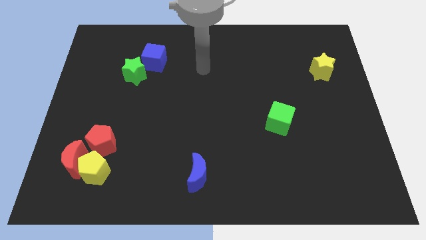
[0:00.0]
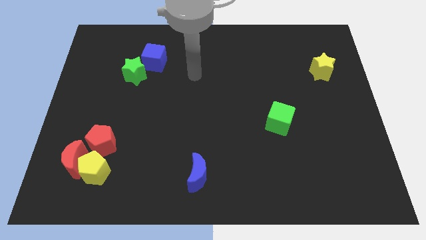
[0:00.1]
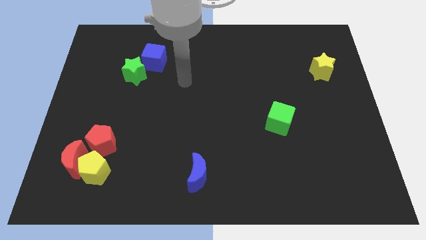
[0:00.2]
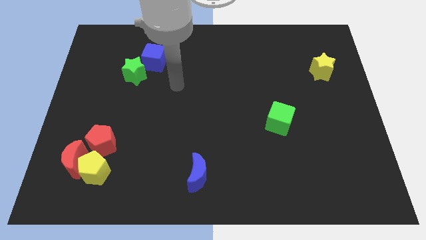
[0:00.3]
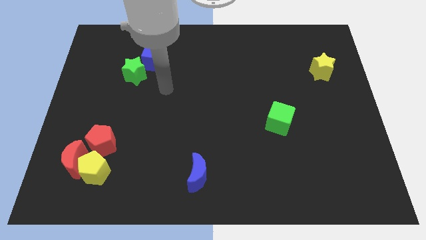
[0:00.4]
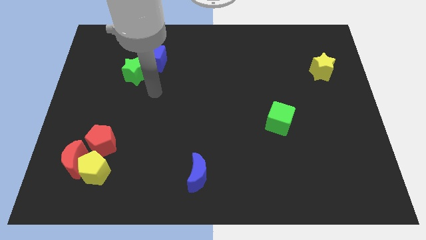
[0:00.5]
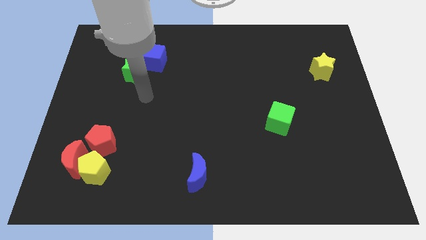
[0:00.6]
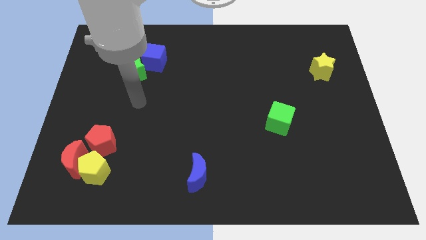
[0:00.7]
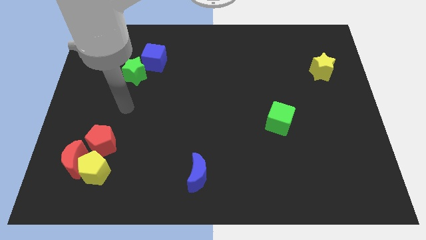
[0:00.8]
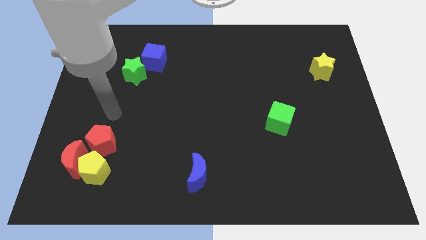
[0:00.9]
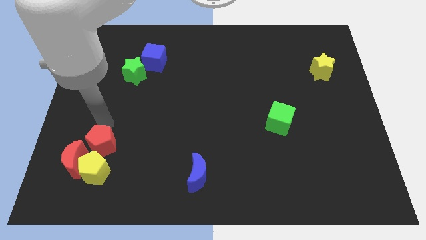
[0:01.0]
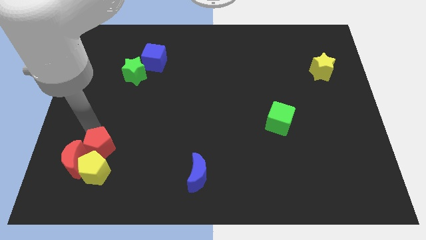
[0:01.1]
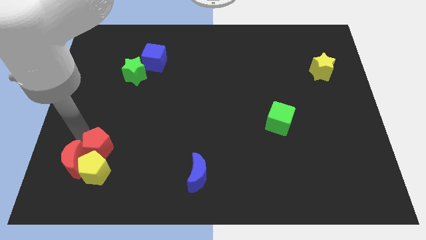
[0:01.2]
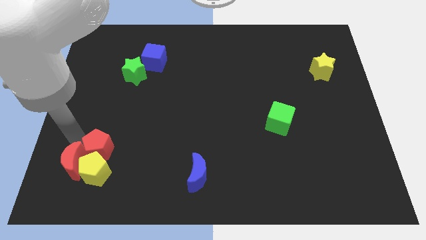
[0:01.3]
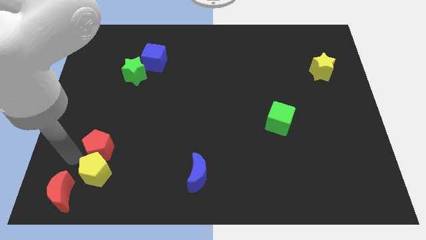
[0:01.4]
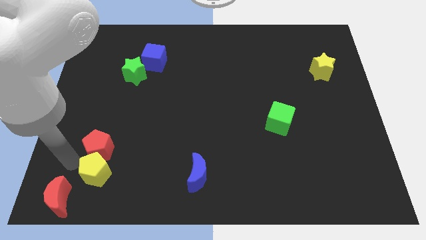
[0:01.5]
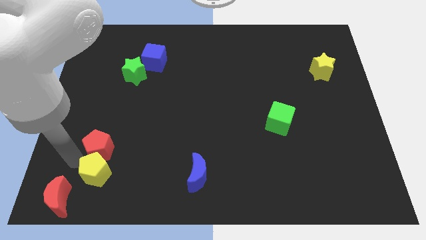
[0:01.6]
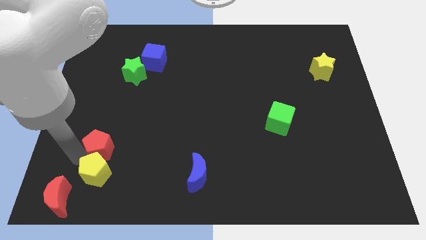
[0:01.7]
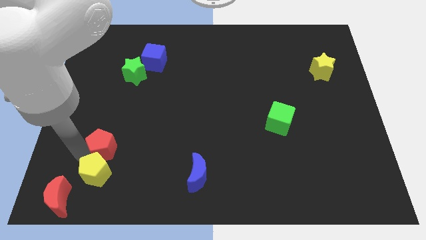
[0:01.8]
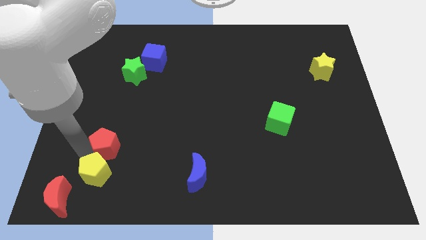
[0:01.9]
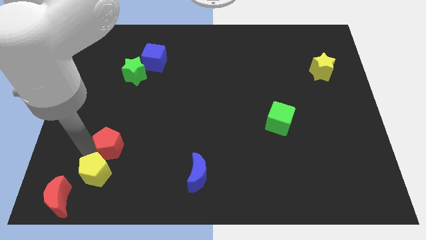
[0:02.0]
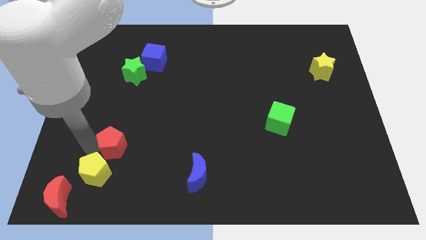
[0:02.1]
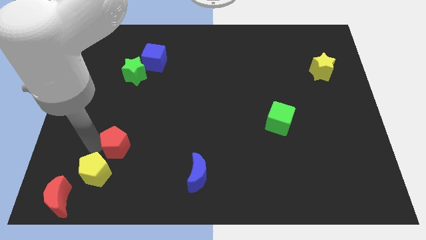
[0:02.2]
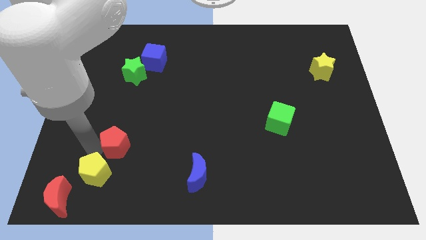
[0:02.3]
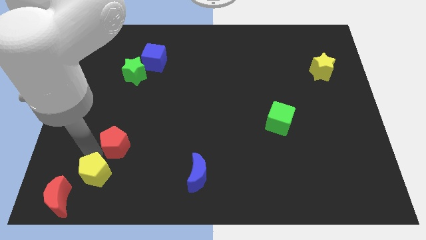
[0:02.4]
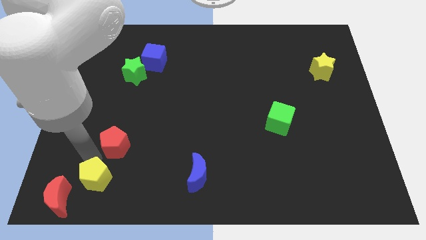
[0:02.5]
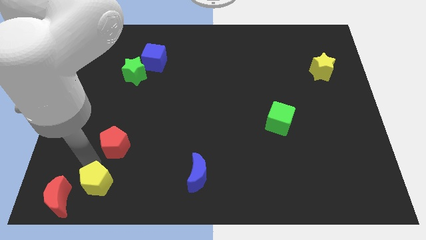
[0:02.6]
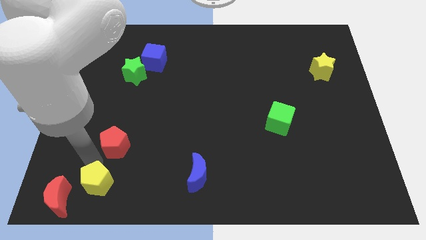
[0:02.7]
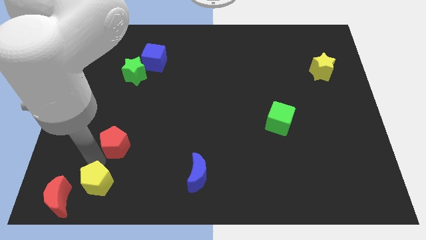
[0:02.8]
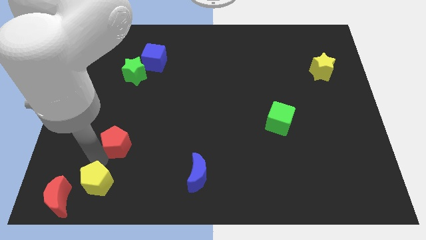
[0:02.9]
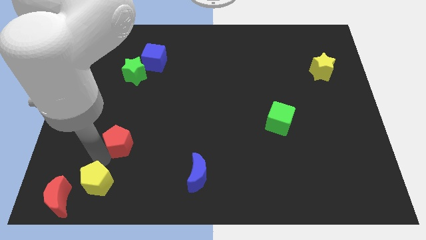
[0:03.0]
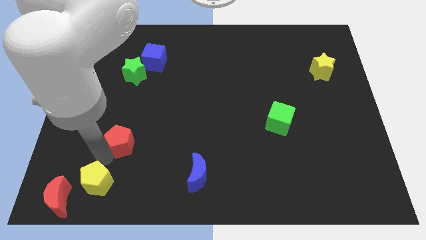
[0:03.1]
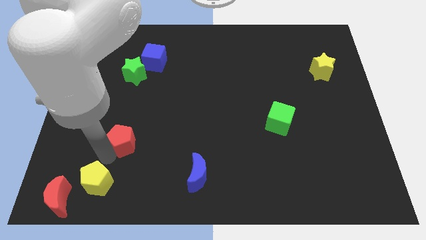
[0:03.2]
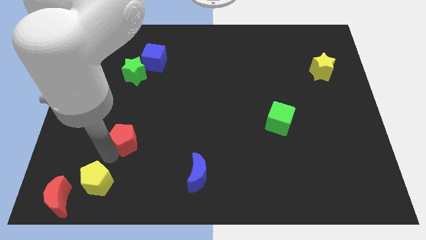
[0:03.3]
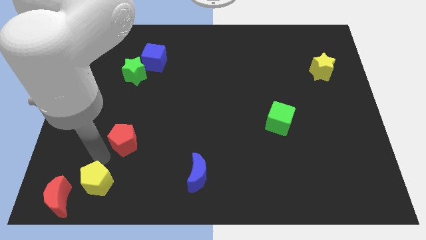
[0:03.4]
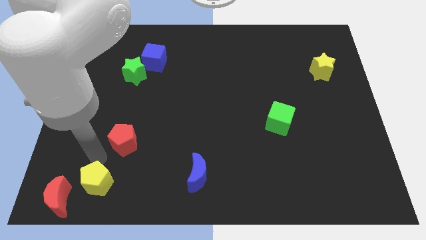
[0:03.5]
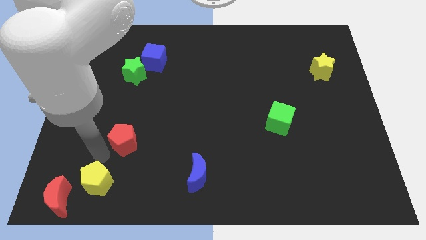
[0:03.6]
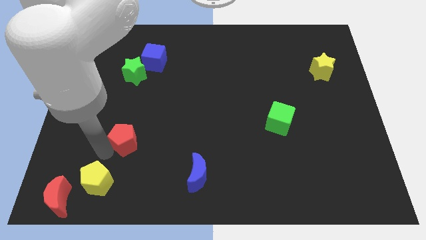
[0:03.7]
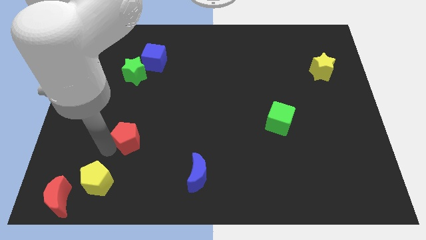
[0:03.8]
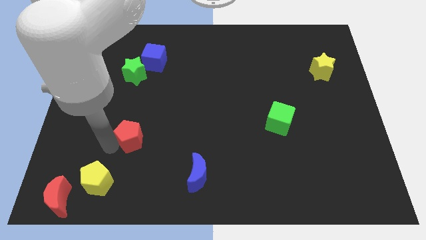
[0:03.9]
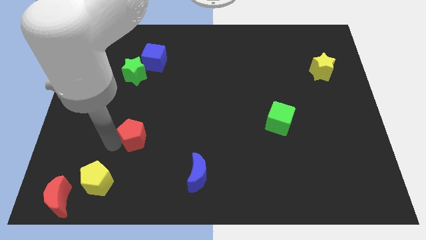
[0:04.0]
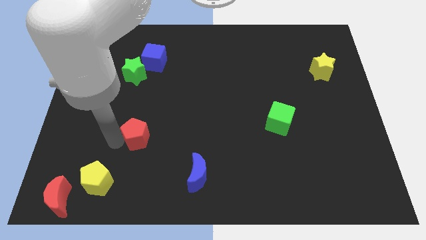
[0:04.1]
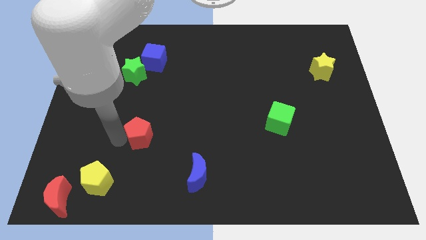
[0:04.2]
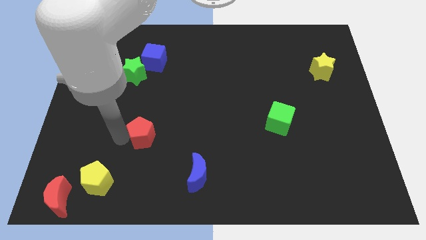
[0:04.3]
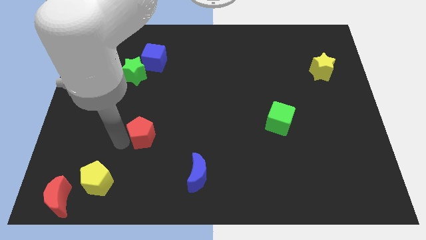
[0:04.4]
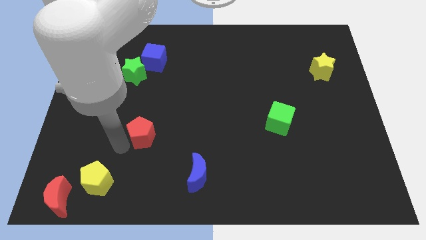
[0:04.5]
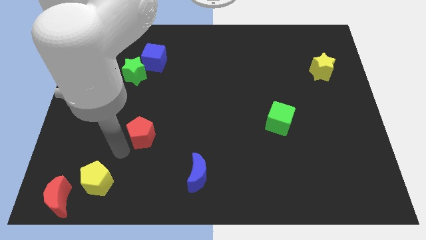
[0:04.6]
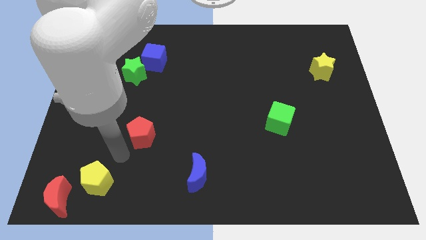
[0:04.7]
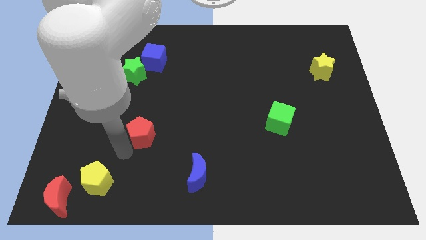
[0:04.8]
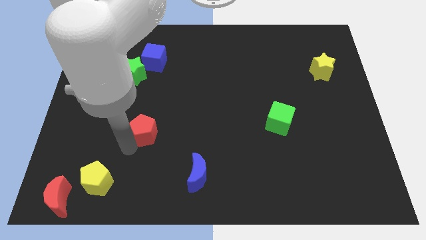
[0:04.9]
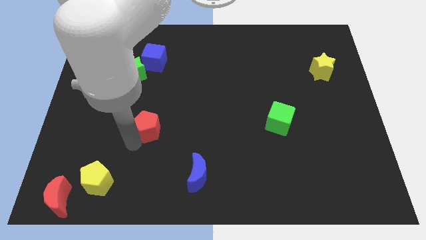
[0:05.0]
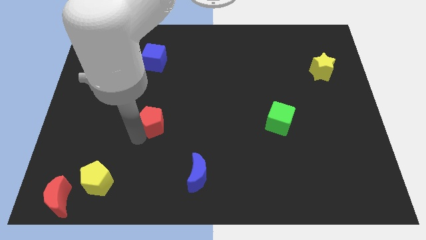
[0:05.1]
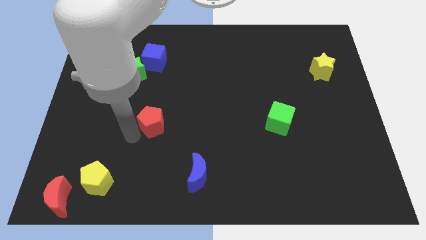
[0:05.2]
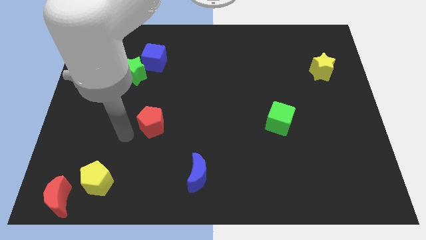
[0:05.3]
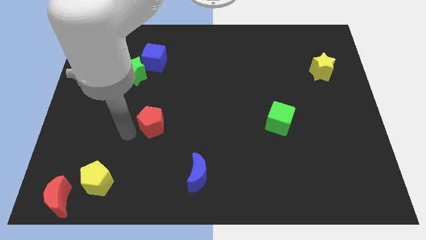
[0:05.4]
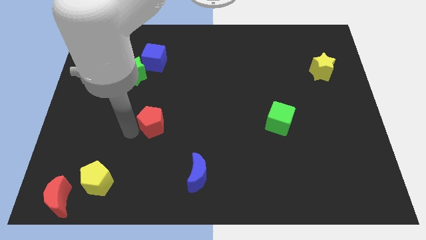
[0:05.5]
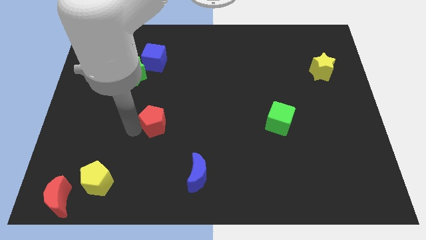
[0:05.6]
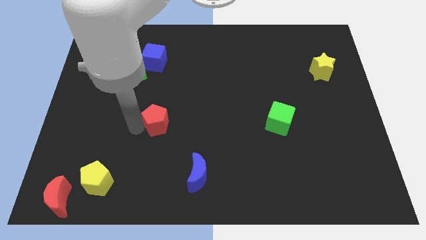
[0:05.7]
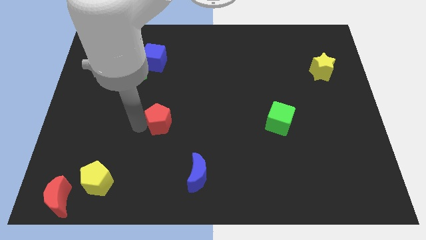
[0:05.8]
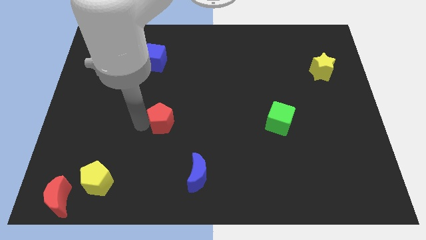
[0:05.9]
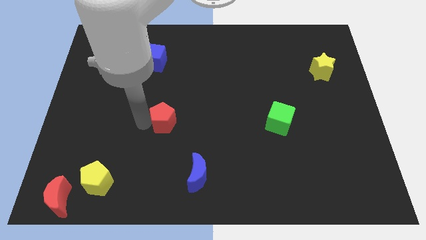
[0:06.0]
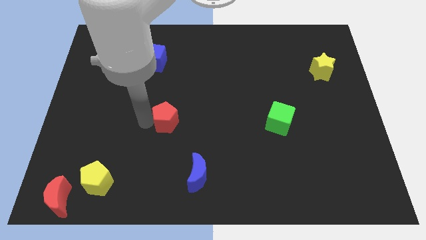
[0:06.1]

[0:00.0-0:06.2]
put the red pentagon to the center
